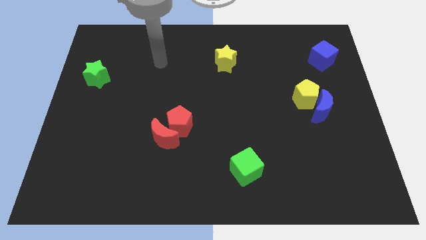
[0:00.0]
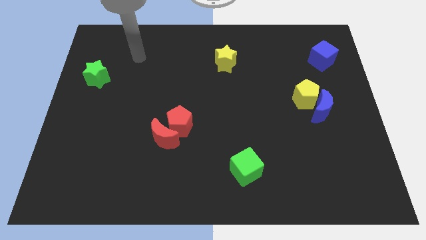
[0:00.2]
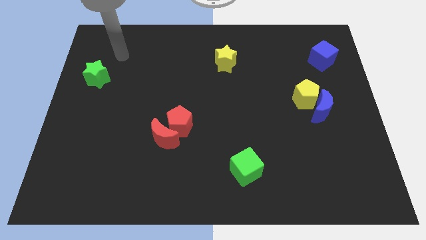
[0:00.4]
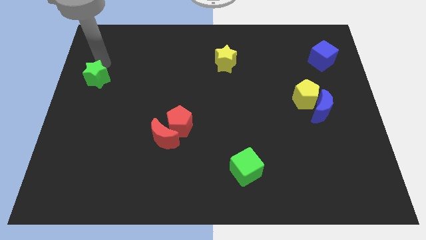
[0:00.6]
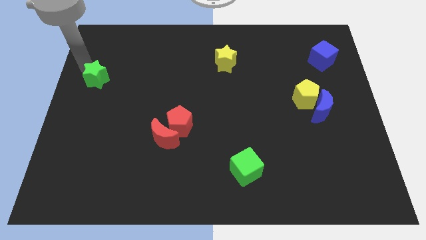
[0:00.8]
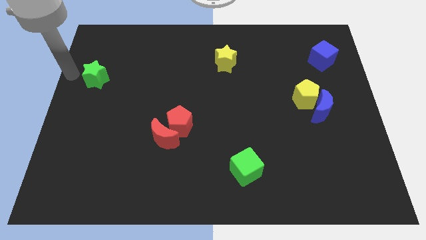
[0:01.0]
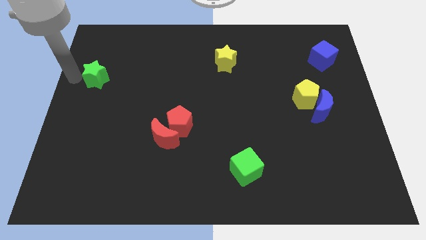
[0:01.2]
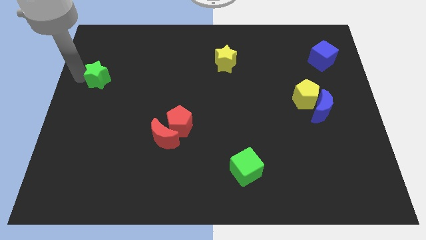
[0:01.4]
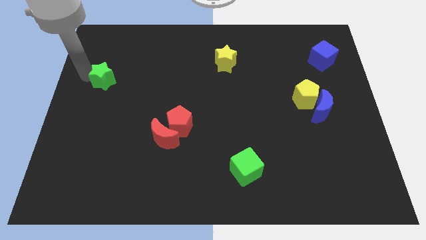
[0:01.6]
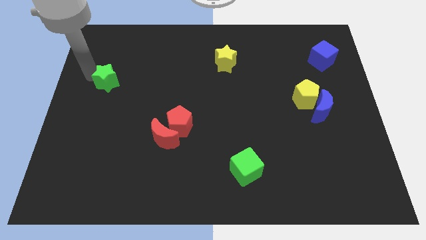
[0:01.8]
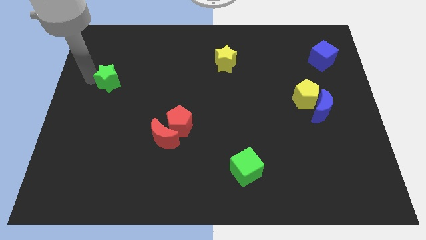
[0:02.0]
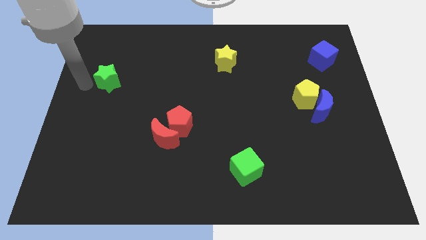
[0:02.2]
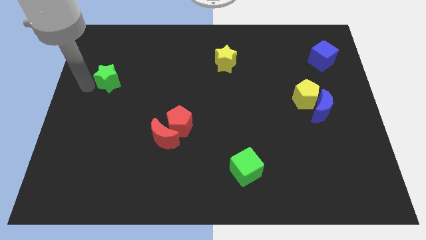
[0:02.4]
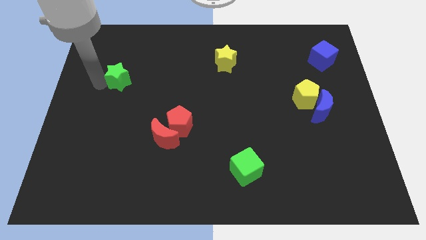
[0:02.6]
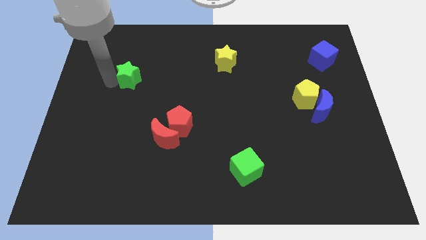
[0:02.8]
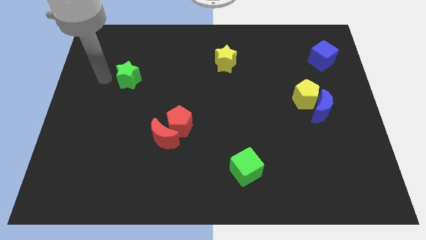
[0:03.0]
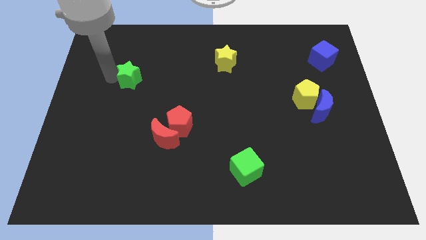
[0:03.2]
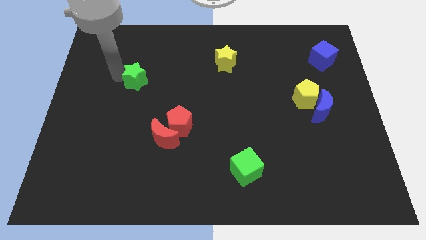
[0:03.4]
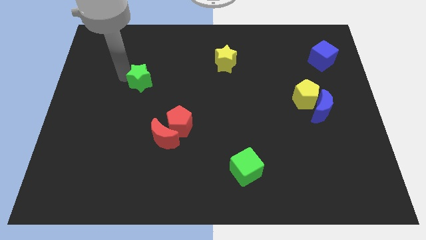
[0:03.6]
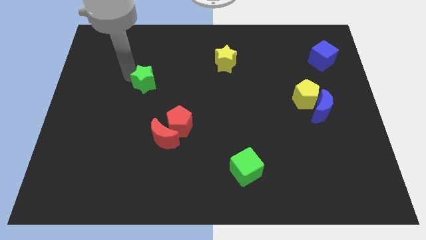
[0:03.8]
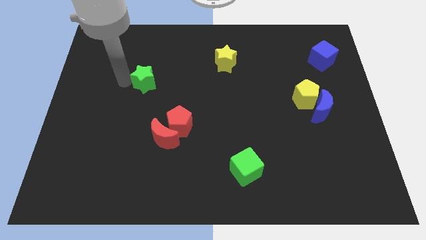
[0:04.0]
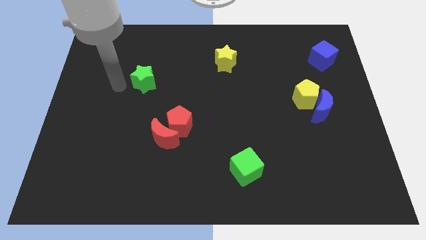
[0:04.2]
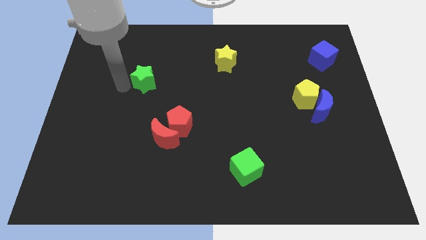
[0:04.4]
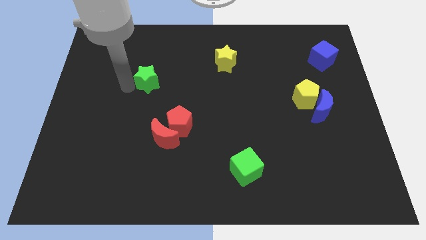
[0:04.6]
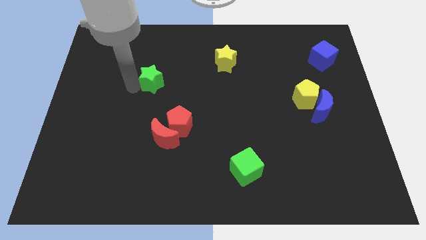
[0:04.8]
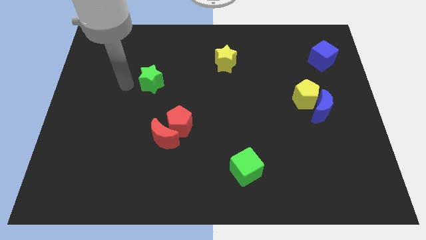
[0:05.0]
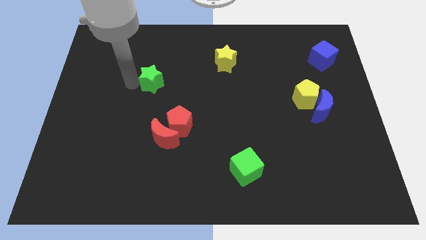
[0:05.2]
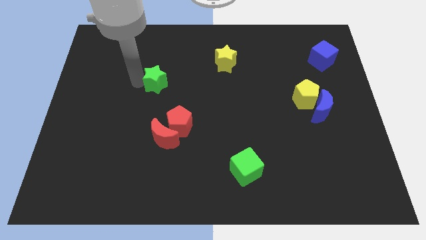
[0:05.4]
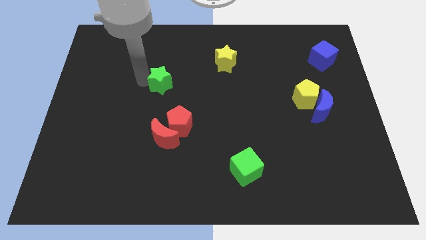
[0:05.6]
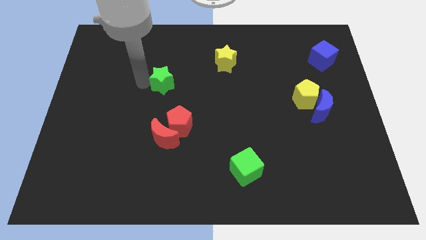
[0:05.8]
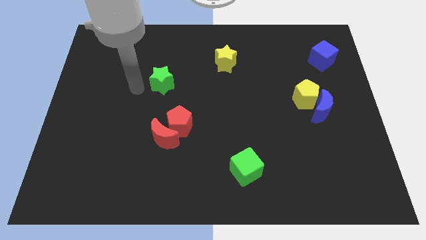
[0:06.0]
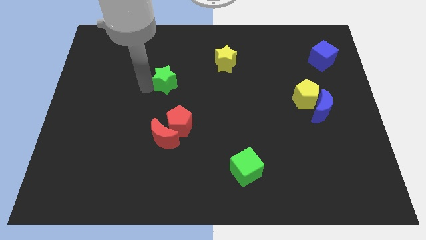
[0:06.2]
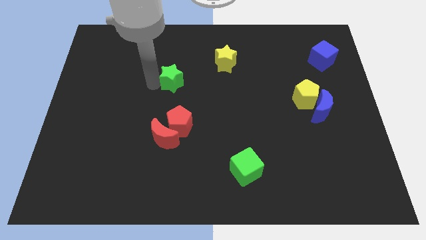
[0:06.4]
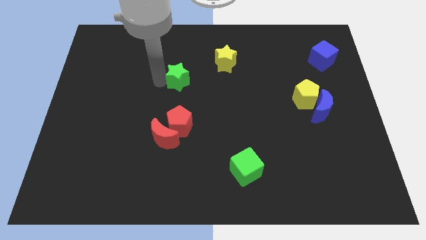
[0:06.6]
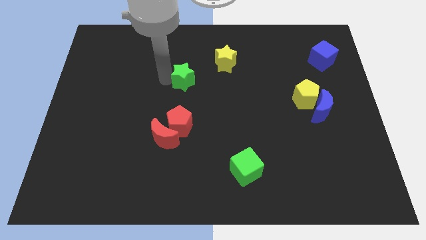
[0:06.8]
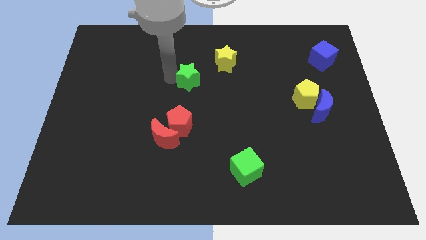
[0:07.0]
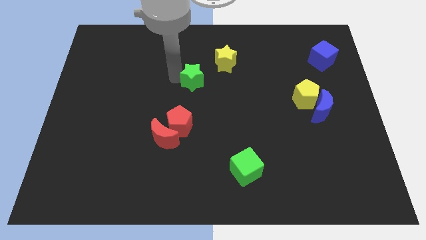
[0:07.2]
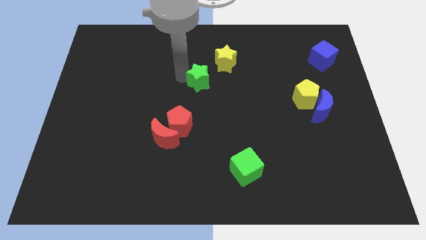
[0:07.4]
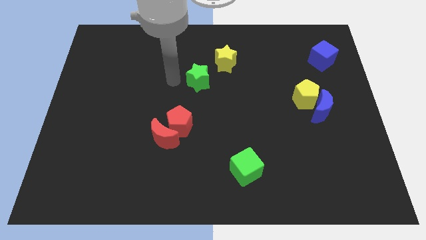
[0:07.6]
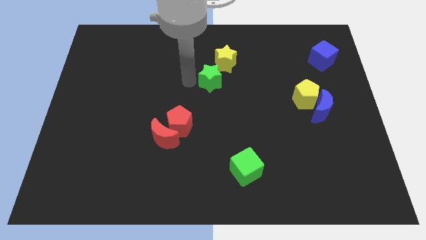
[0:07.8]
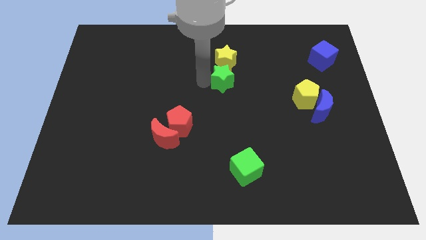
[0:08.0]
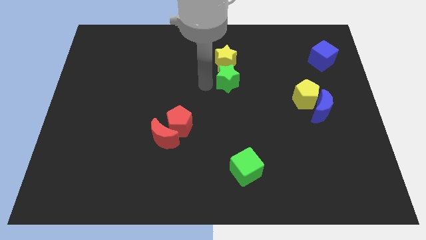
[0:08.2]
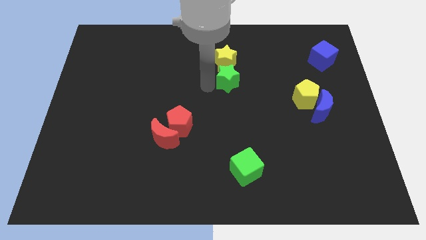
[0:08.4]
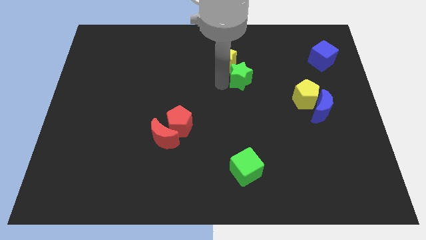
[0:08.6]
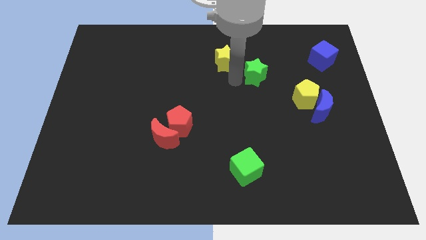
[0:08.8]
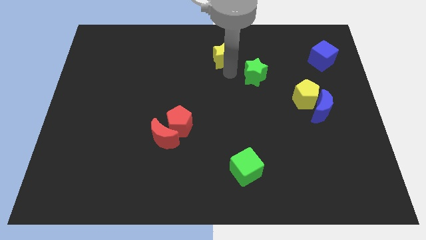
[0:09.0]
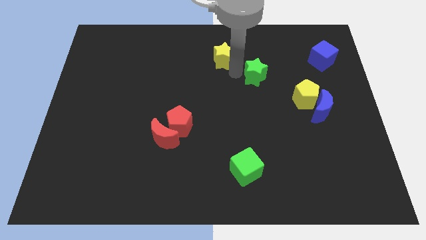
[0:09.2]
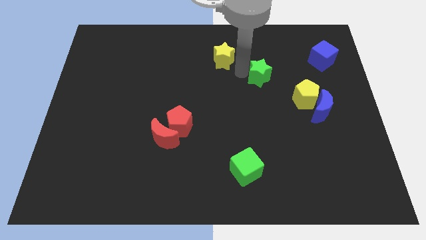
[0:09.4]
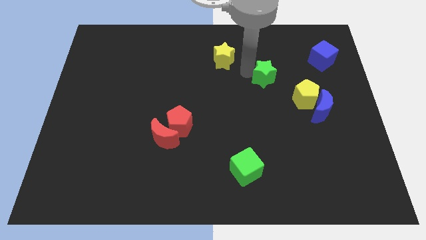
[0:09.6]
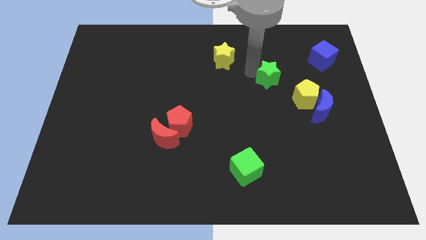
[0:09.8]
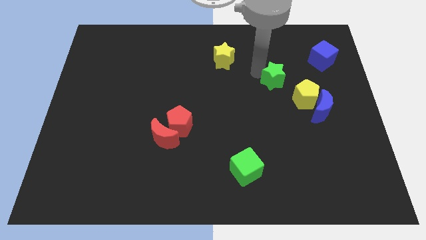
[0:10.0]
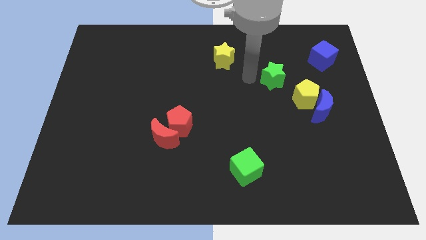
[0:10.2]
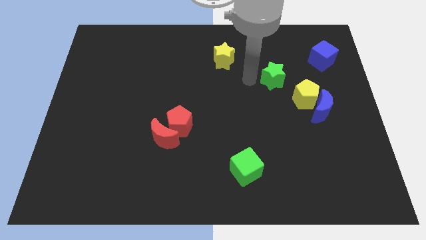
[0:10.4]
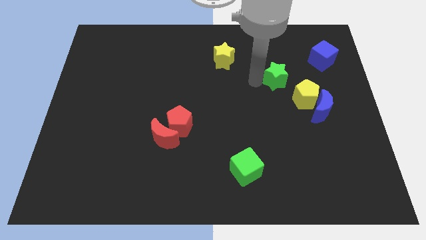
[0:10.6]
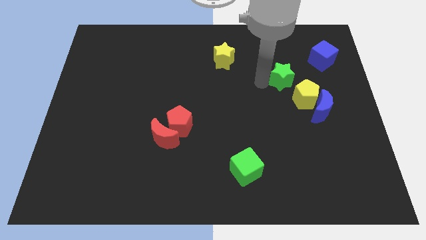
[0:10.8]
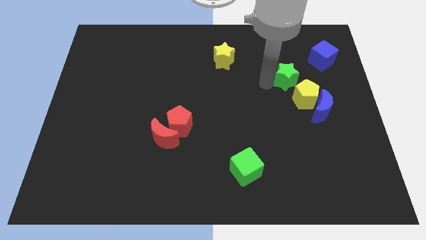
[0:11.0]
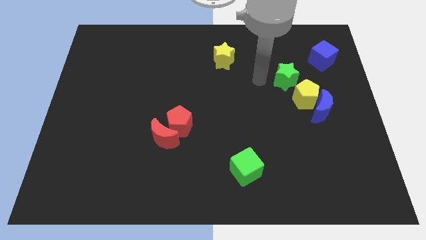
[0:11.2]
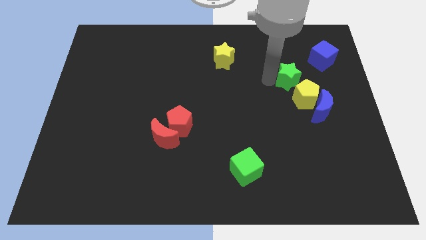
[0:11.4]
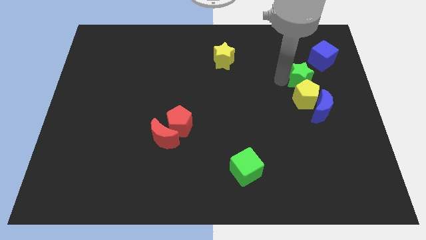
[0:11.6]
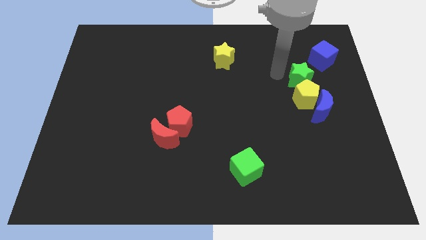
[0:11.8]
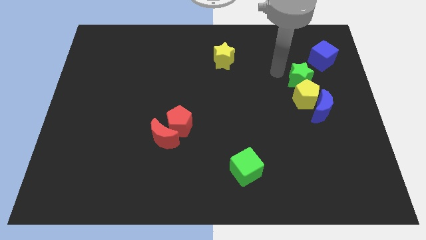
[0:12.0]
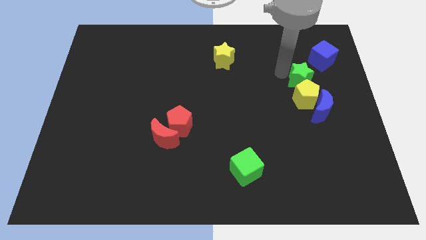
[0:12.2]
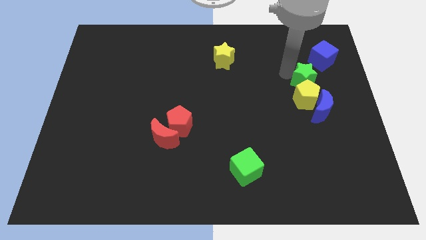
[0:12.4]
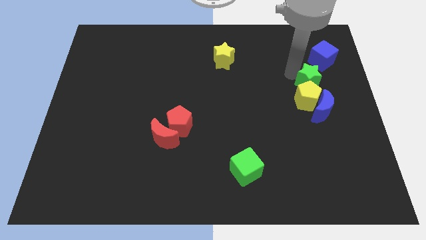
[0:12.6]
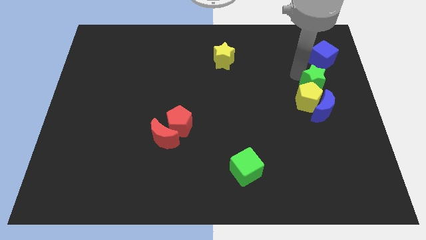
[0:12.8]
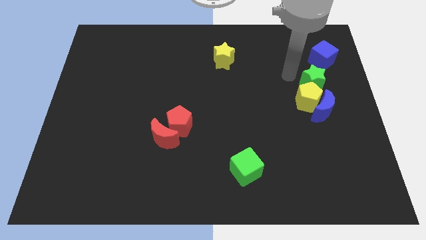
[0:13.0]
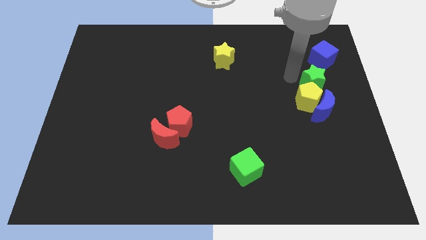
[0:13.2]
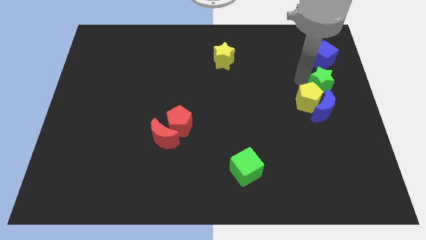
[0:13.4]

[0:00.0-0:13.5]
move the green star to the right side of the board
